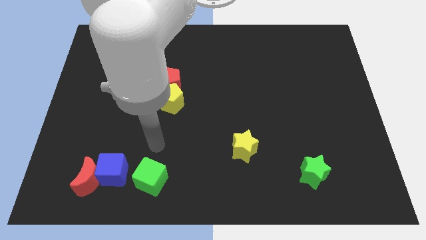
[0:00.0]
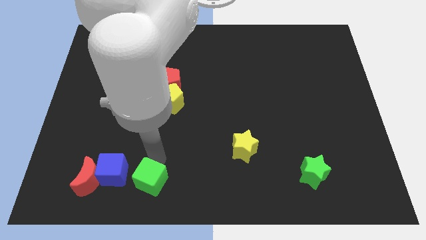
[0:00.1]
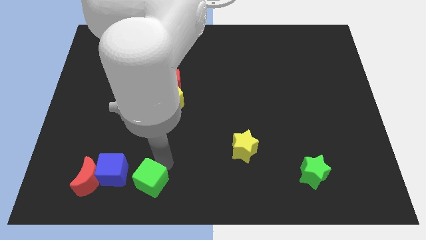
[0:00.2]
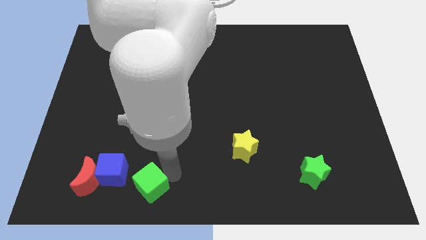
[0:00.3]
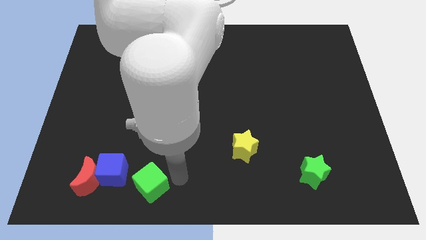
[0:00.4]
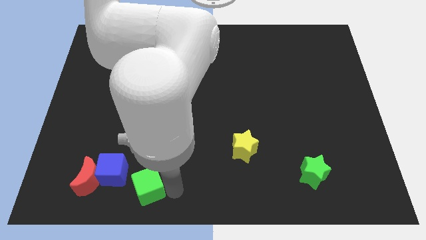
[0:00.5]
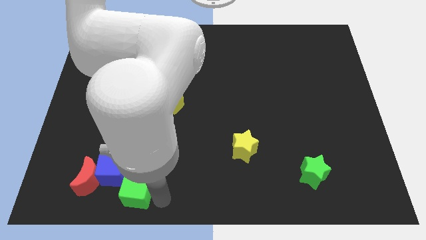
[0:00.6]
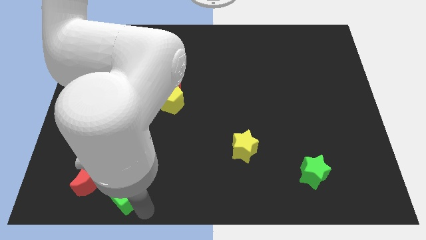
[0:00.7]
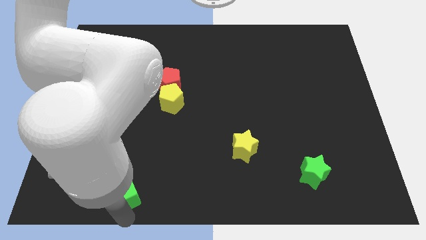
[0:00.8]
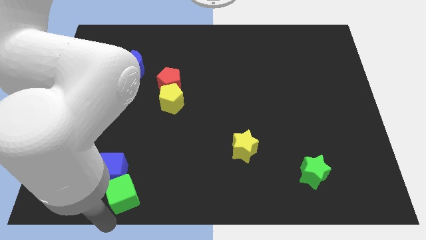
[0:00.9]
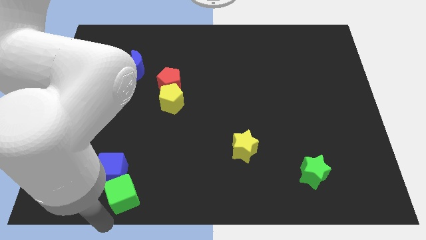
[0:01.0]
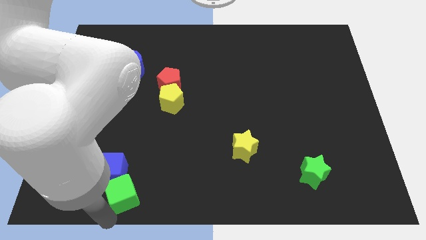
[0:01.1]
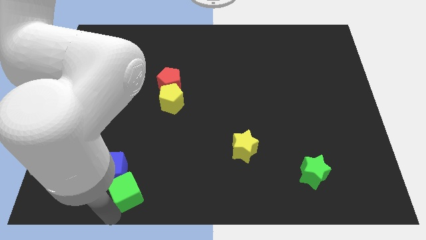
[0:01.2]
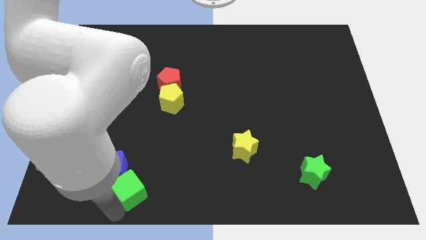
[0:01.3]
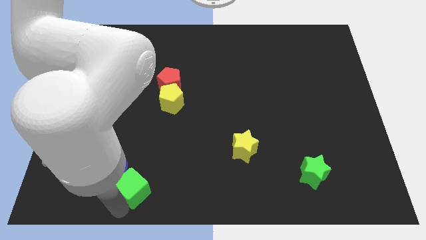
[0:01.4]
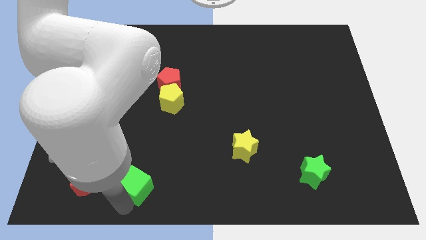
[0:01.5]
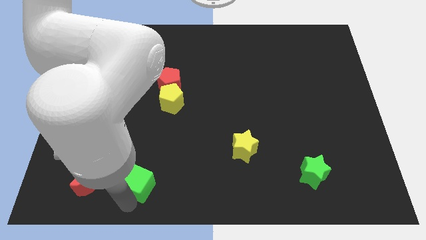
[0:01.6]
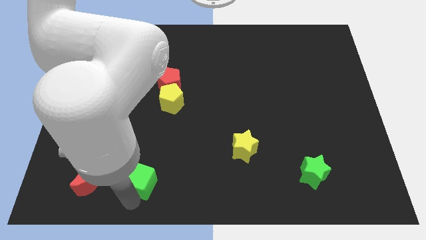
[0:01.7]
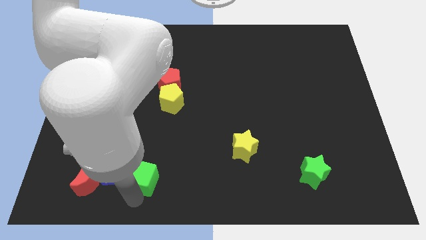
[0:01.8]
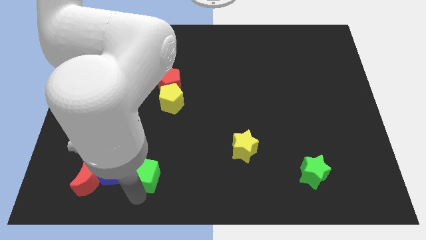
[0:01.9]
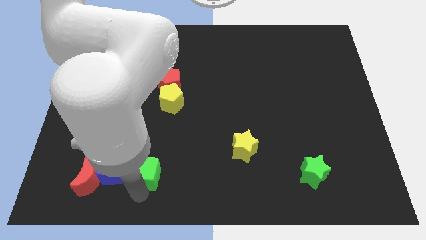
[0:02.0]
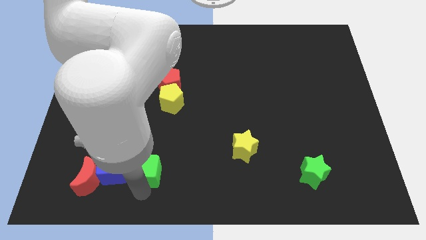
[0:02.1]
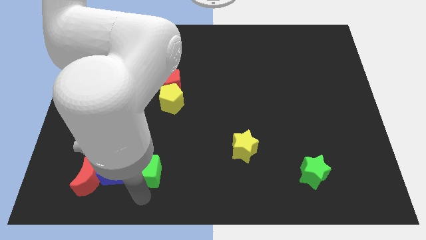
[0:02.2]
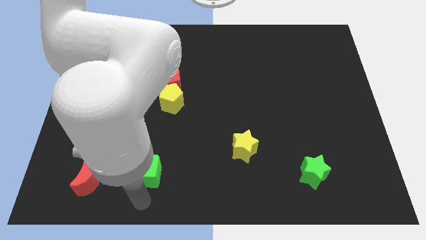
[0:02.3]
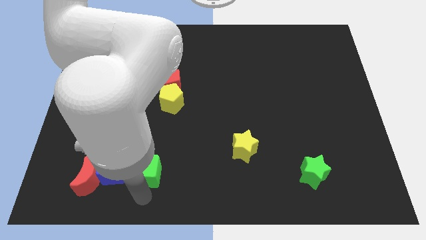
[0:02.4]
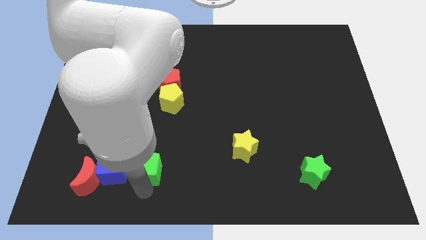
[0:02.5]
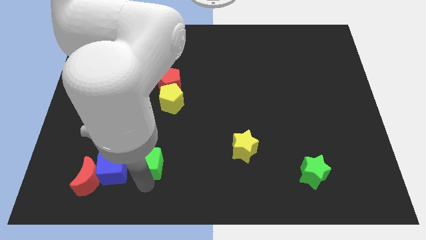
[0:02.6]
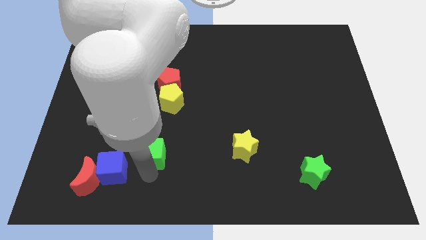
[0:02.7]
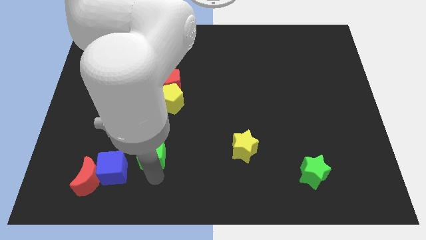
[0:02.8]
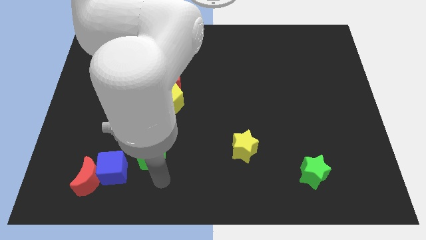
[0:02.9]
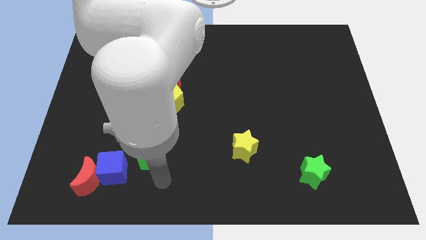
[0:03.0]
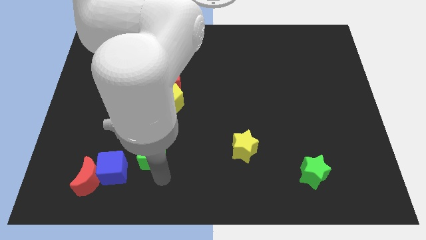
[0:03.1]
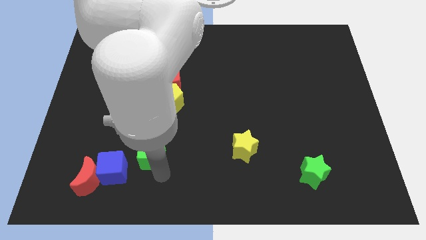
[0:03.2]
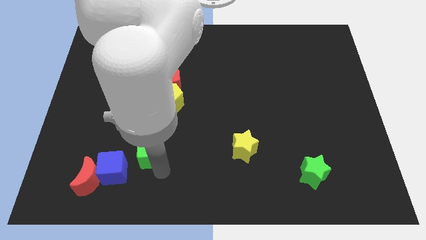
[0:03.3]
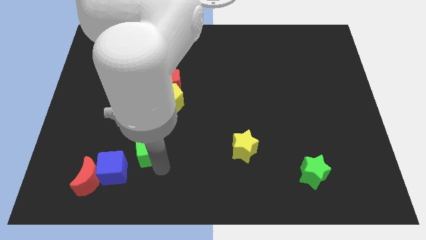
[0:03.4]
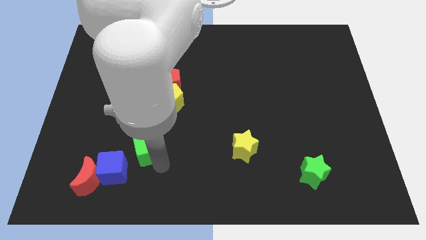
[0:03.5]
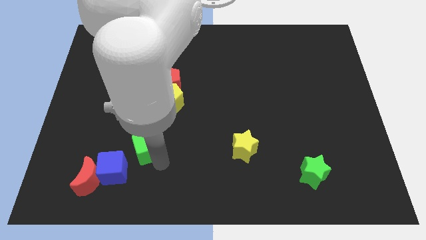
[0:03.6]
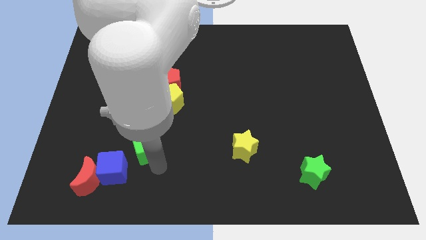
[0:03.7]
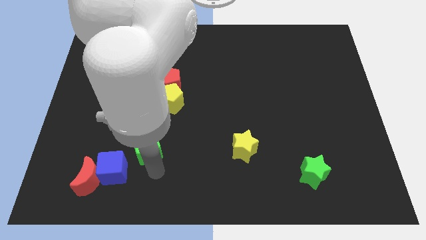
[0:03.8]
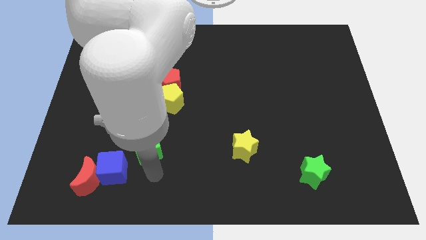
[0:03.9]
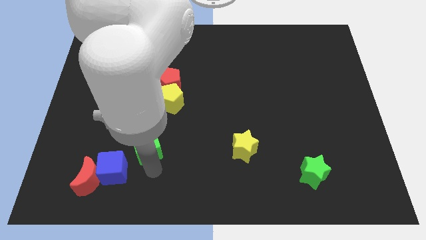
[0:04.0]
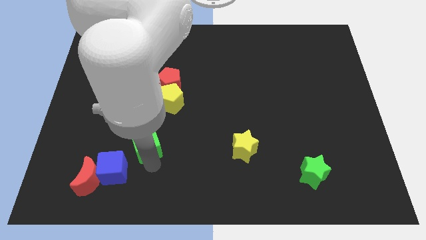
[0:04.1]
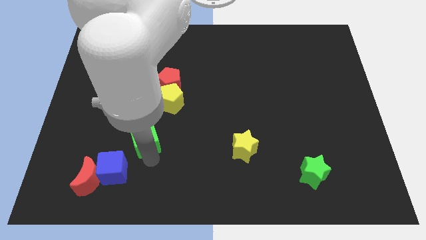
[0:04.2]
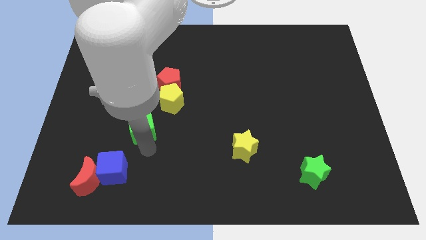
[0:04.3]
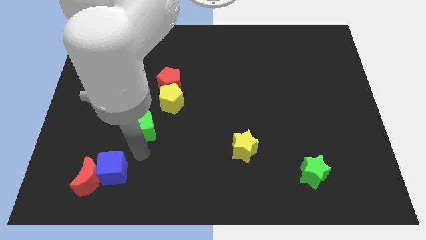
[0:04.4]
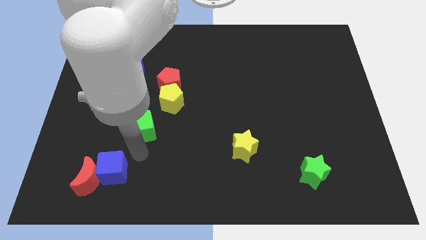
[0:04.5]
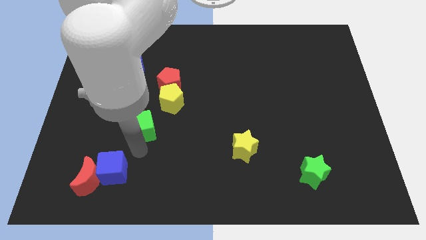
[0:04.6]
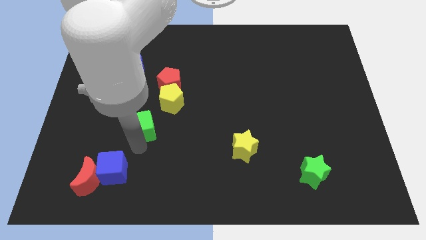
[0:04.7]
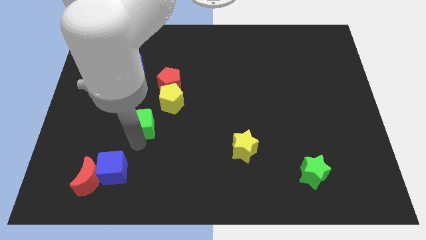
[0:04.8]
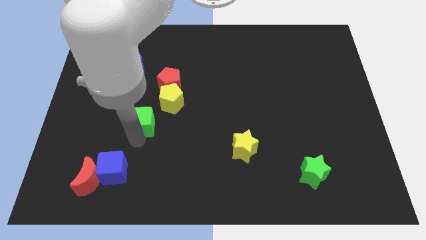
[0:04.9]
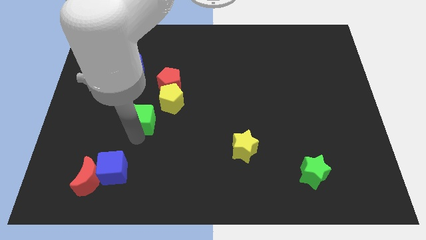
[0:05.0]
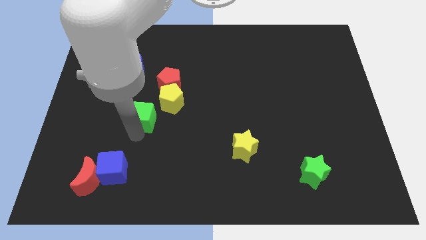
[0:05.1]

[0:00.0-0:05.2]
slide the green cube to the bottom left side of the red pentagon

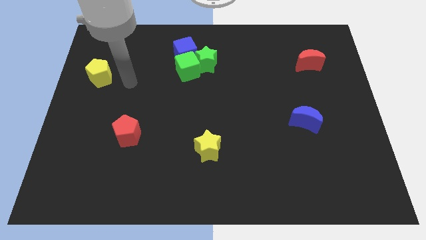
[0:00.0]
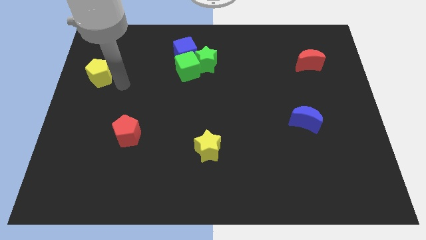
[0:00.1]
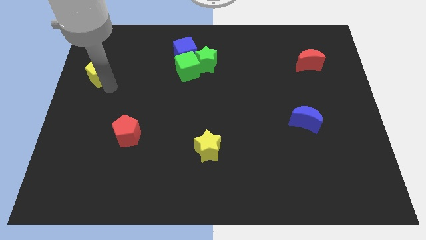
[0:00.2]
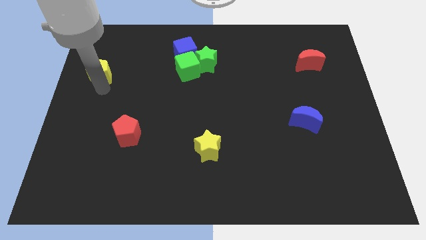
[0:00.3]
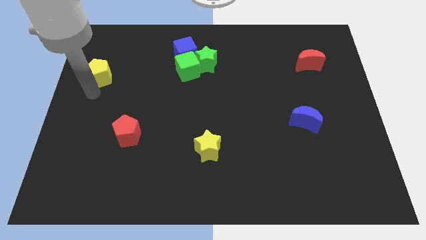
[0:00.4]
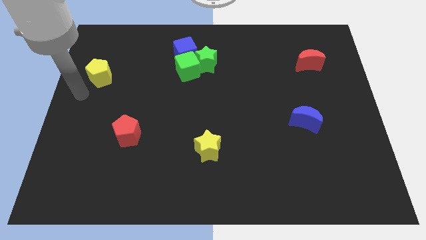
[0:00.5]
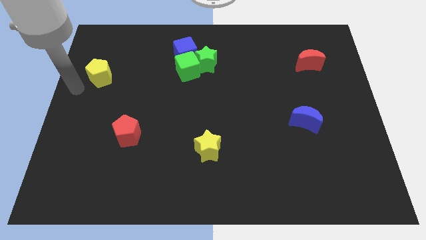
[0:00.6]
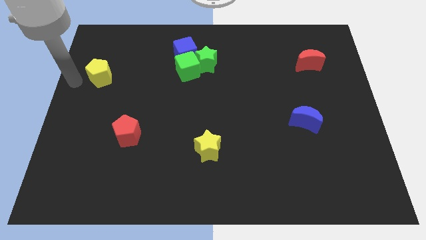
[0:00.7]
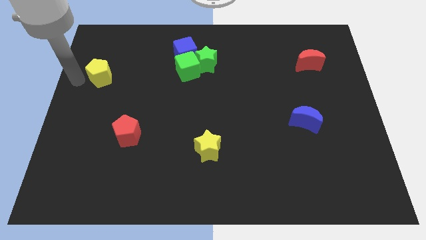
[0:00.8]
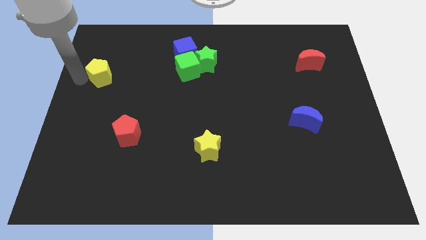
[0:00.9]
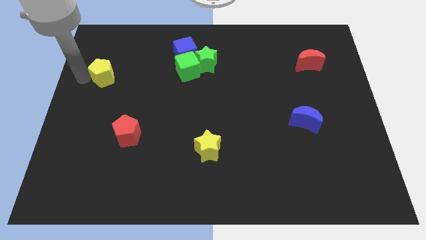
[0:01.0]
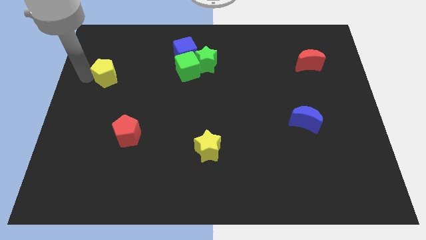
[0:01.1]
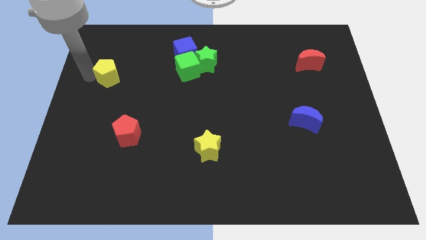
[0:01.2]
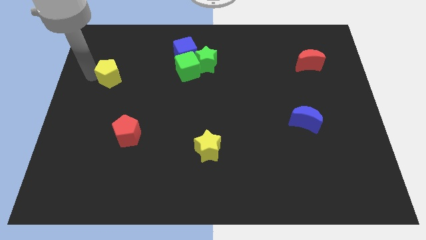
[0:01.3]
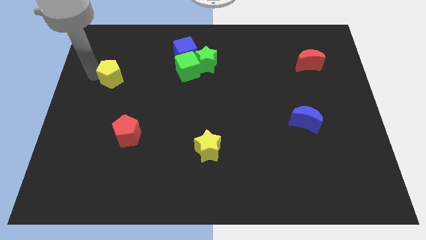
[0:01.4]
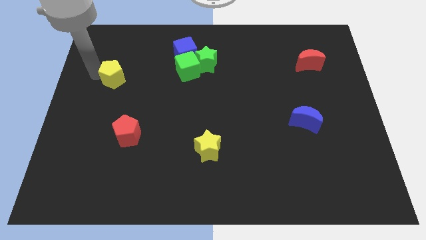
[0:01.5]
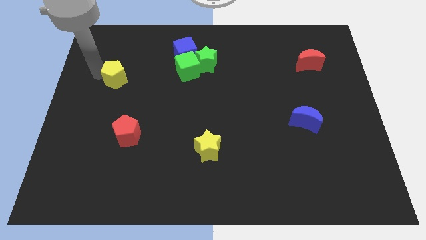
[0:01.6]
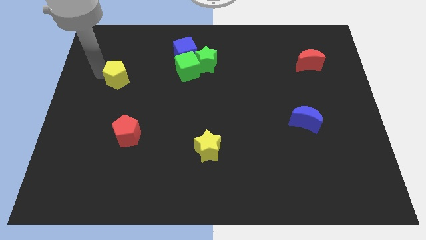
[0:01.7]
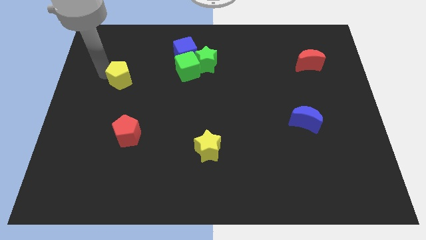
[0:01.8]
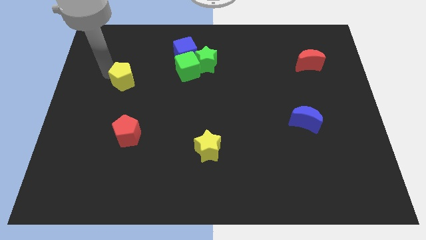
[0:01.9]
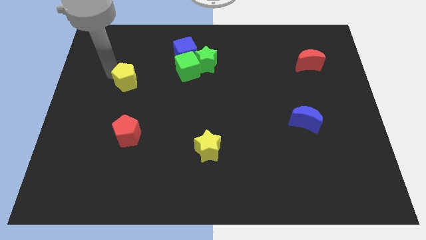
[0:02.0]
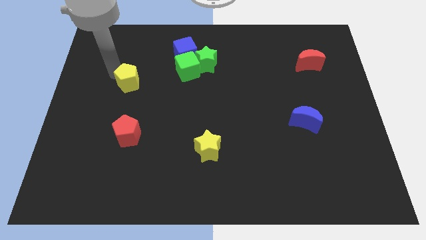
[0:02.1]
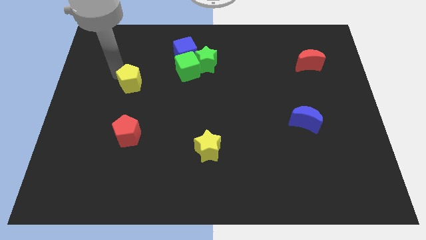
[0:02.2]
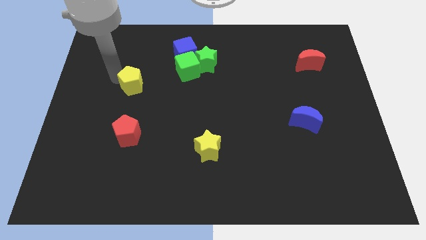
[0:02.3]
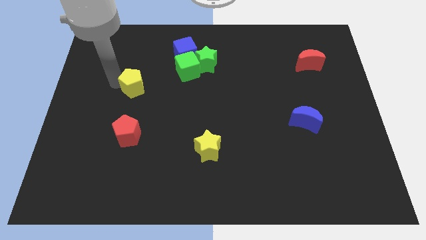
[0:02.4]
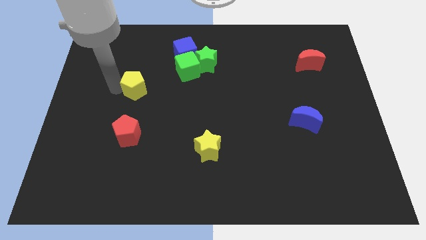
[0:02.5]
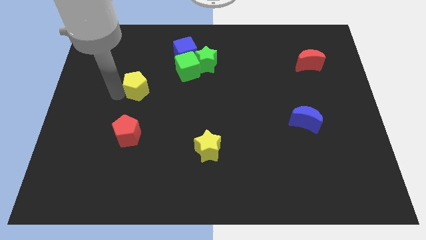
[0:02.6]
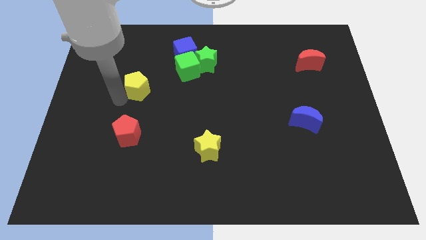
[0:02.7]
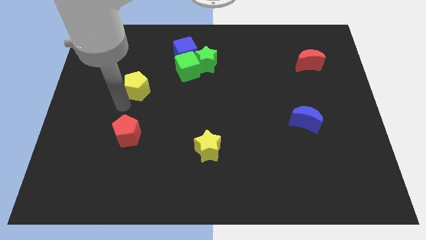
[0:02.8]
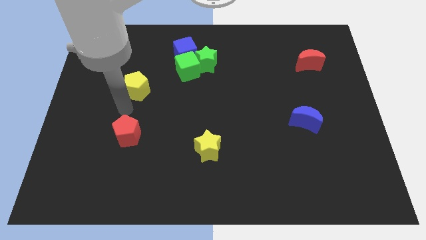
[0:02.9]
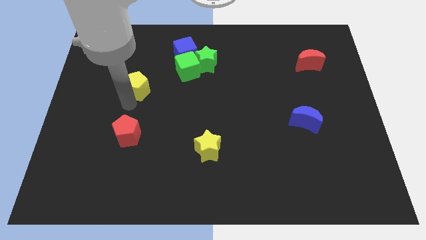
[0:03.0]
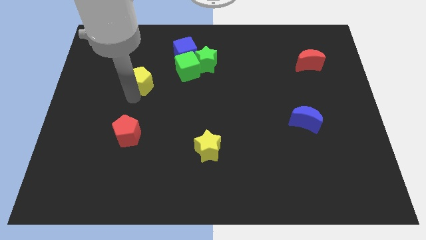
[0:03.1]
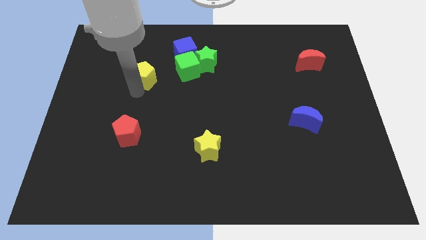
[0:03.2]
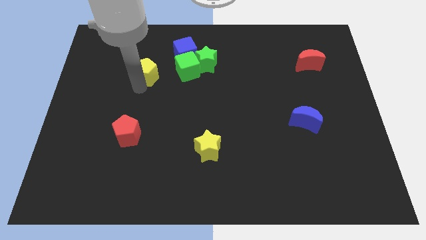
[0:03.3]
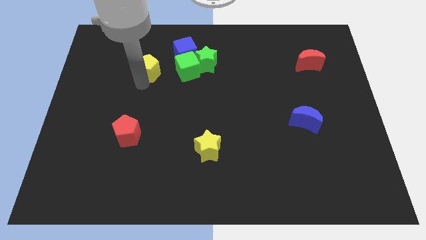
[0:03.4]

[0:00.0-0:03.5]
move the yellow pentagon to the left of the green star

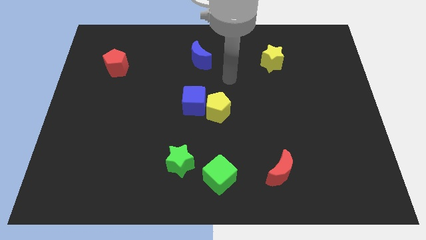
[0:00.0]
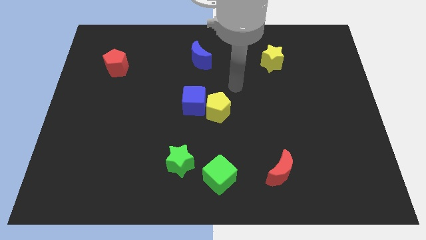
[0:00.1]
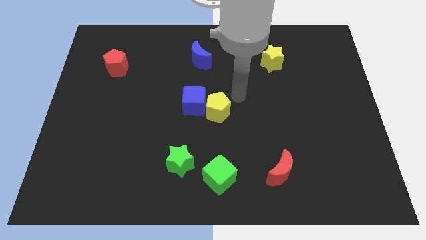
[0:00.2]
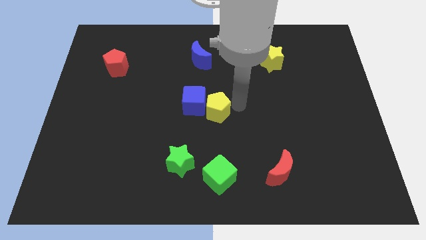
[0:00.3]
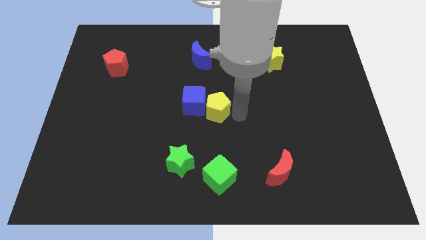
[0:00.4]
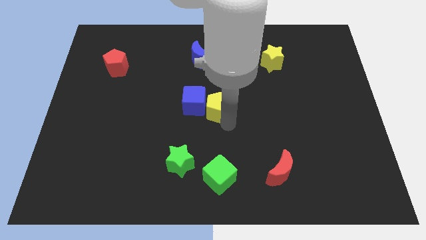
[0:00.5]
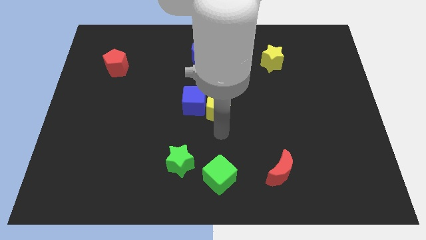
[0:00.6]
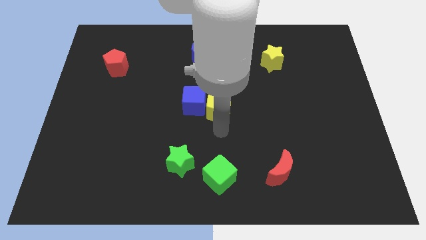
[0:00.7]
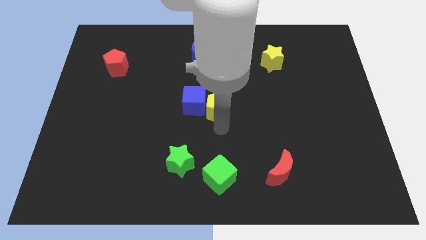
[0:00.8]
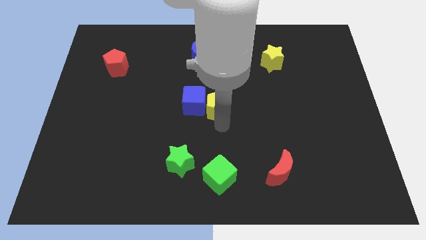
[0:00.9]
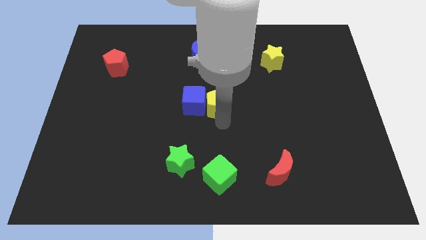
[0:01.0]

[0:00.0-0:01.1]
put the yellow pentagon diagonally up and to the right of the blue cube
